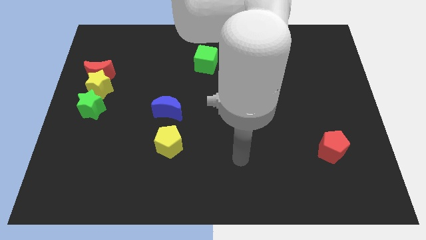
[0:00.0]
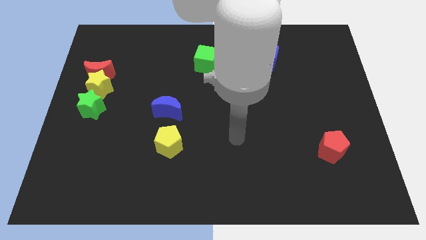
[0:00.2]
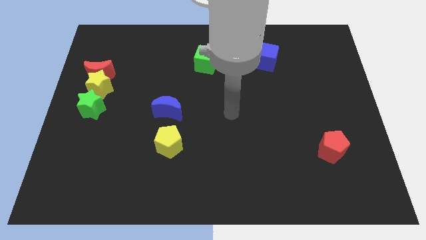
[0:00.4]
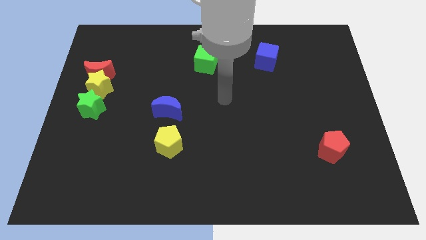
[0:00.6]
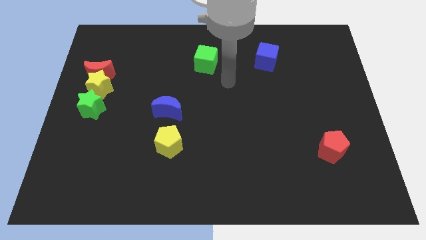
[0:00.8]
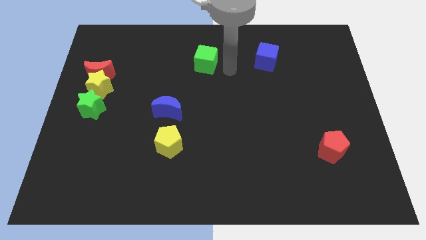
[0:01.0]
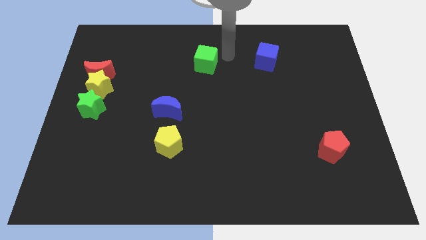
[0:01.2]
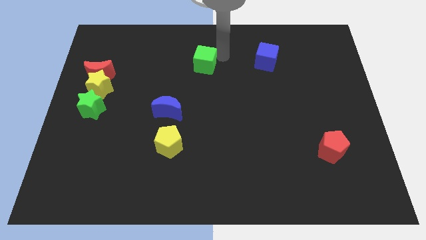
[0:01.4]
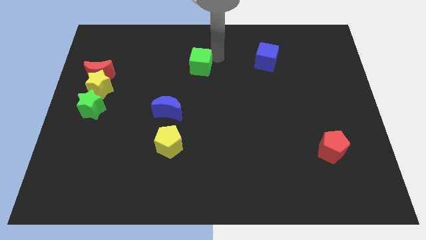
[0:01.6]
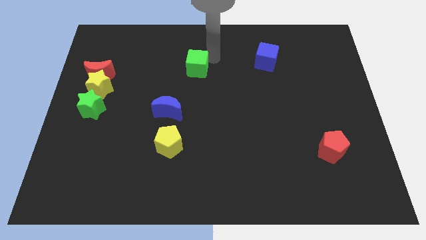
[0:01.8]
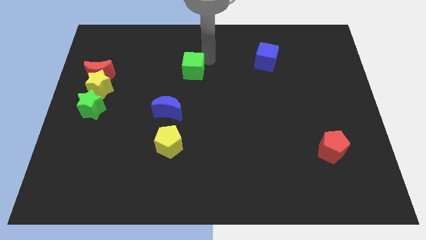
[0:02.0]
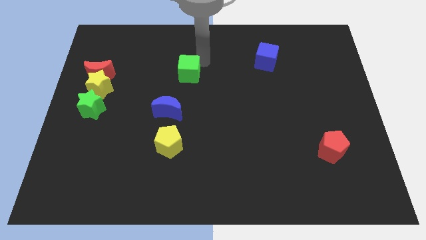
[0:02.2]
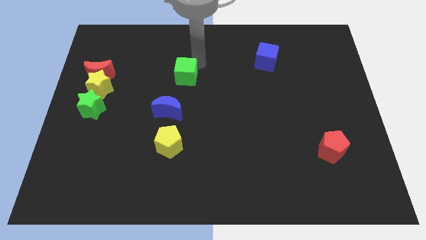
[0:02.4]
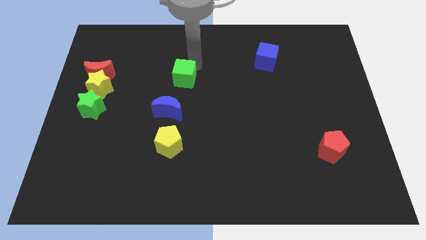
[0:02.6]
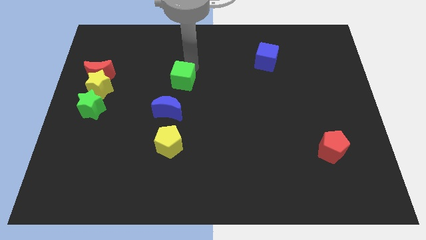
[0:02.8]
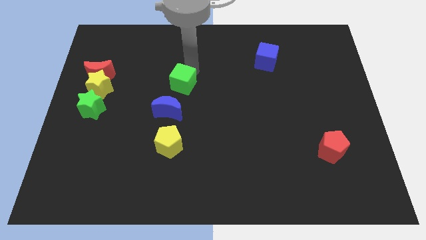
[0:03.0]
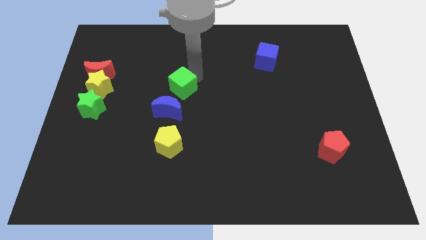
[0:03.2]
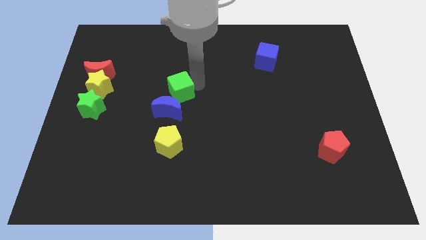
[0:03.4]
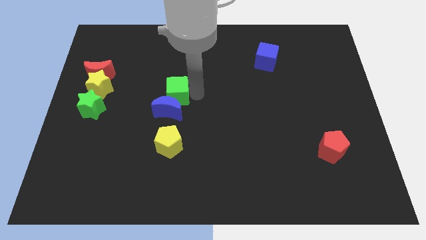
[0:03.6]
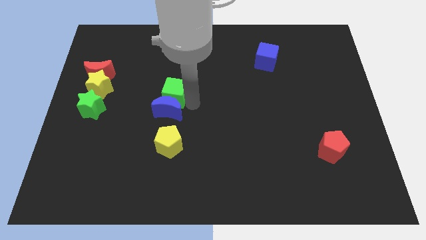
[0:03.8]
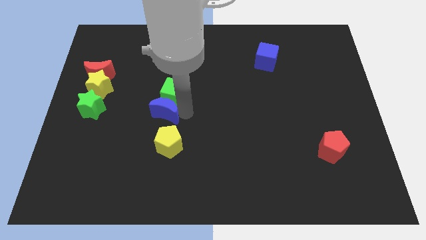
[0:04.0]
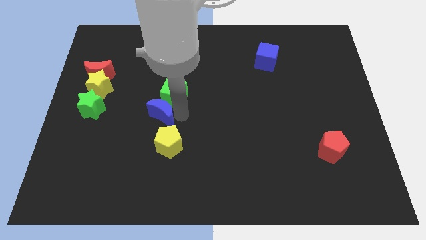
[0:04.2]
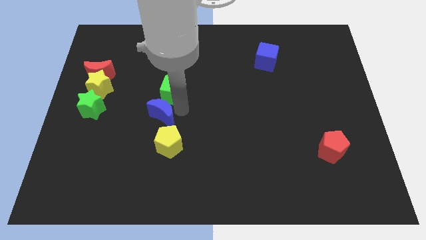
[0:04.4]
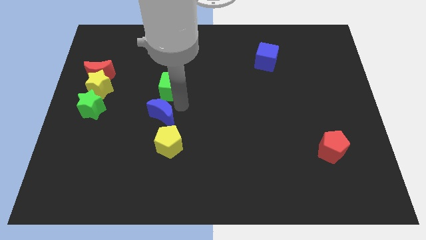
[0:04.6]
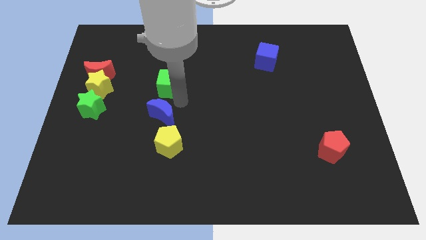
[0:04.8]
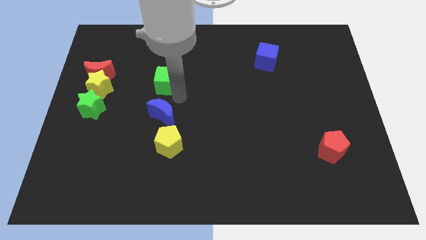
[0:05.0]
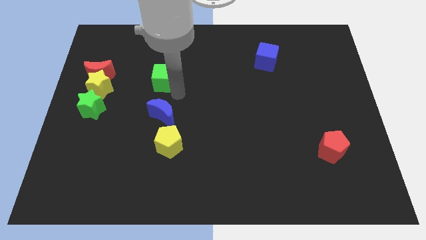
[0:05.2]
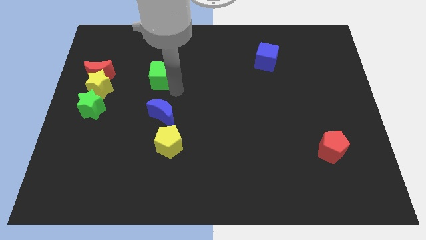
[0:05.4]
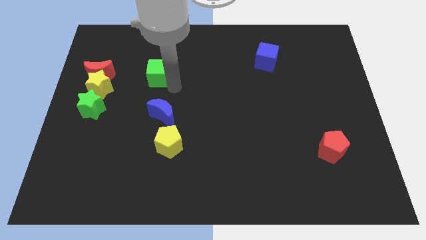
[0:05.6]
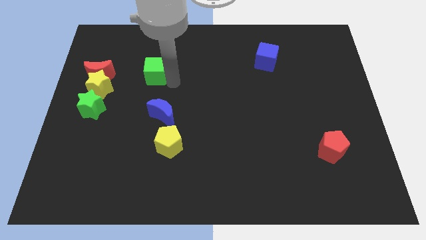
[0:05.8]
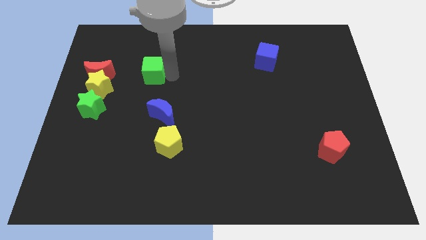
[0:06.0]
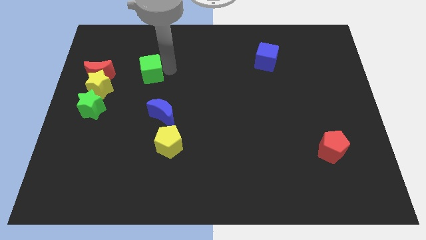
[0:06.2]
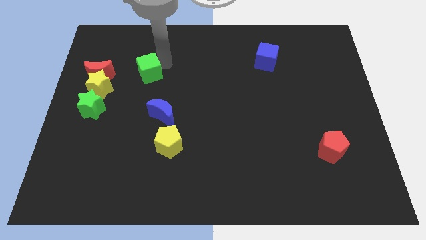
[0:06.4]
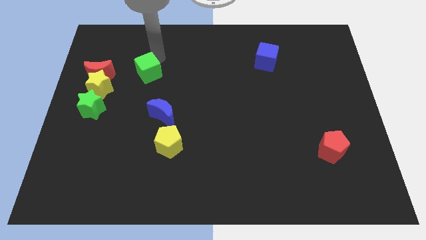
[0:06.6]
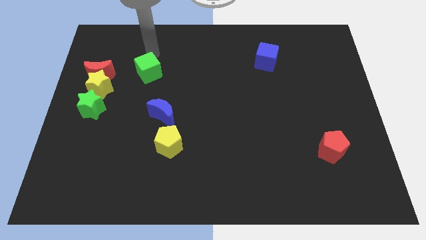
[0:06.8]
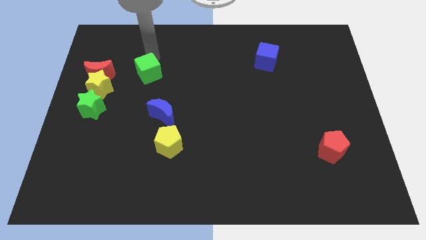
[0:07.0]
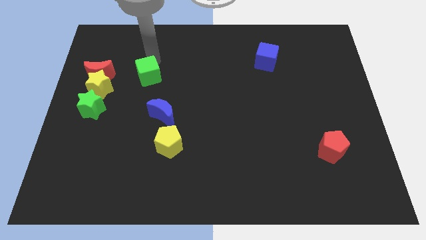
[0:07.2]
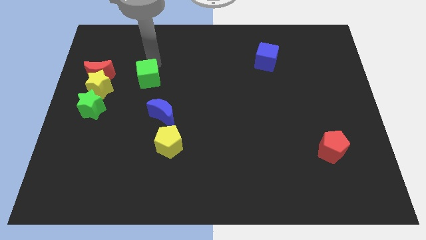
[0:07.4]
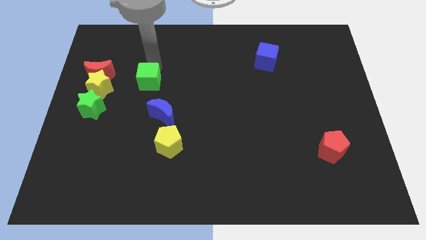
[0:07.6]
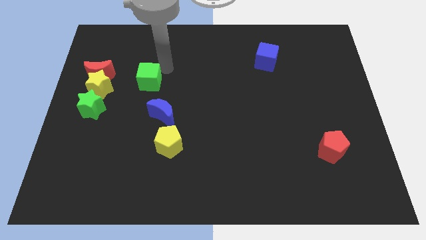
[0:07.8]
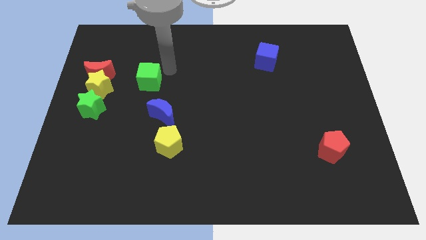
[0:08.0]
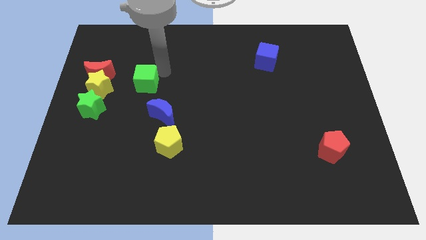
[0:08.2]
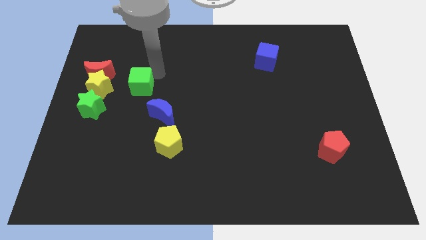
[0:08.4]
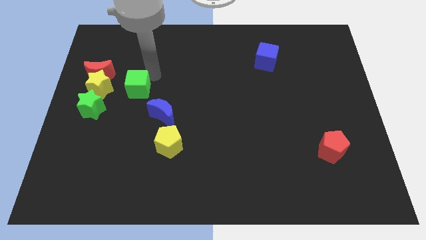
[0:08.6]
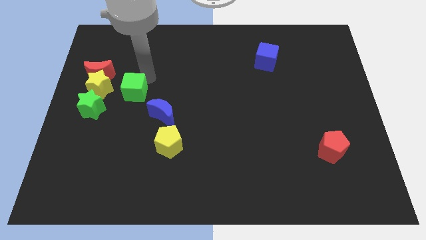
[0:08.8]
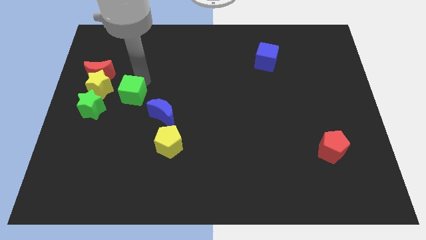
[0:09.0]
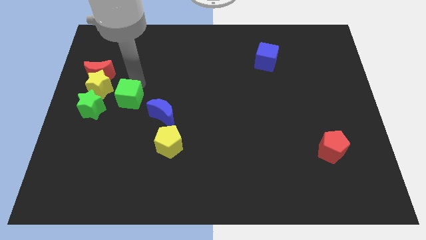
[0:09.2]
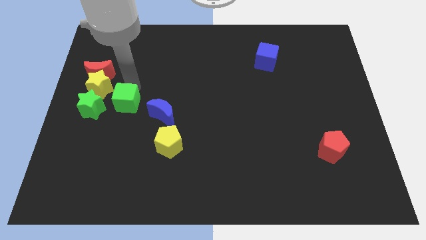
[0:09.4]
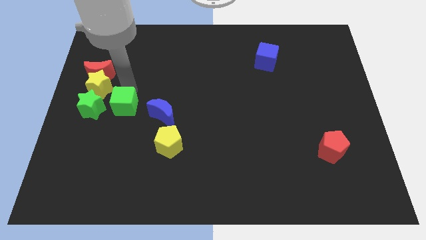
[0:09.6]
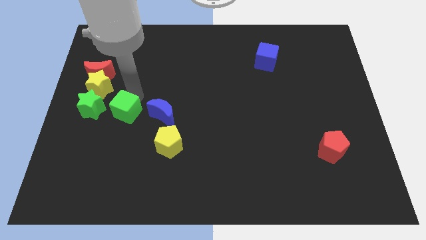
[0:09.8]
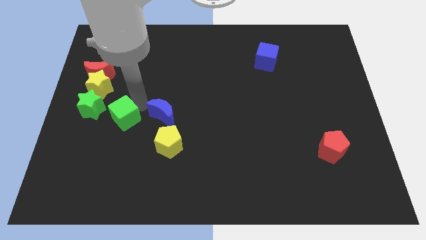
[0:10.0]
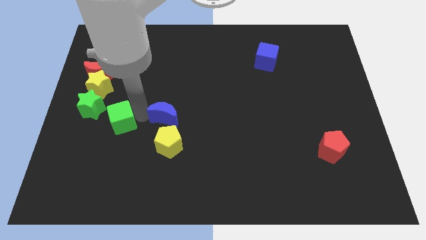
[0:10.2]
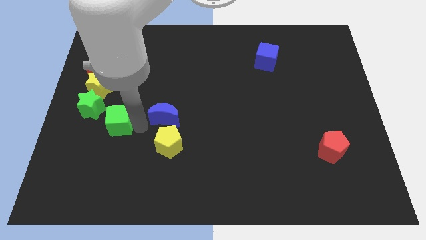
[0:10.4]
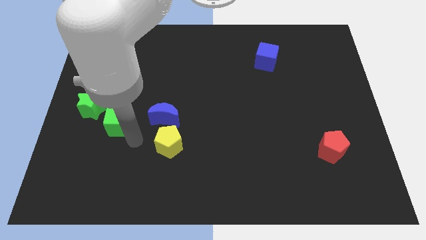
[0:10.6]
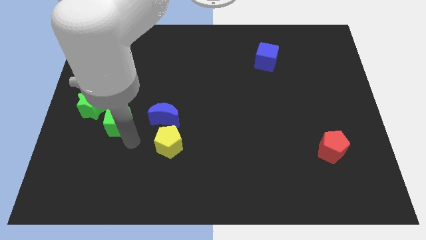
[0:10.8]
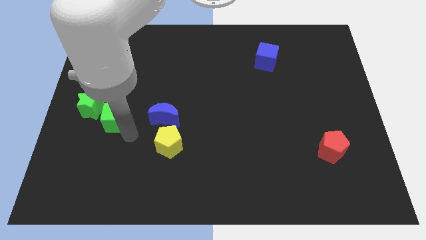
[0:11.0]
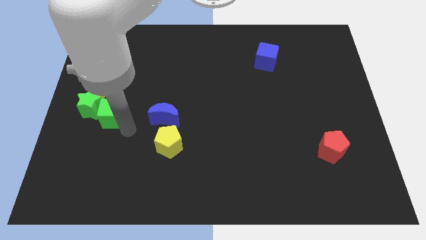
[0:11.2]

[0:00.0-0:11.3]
slide the green cube to the green star

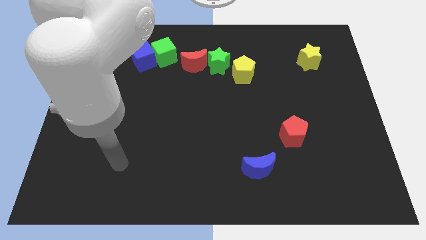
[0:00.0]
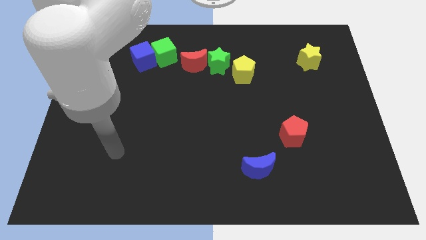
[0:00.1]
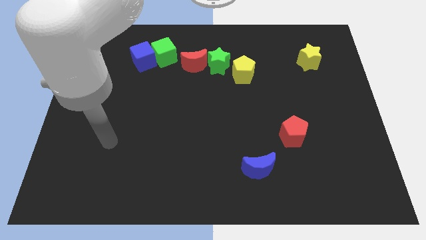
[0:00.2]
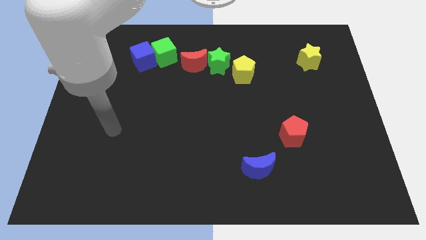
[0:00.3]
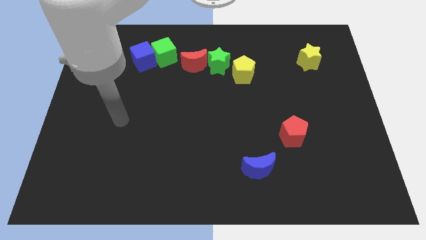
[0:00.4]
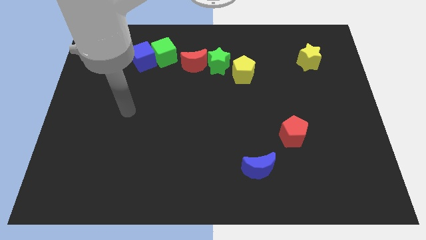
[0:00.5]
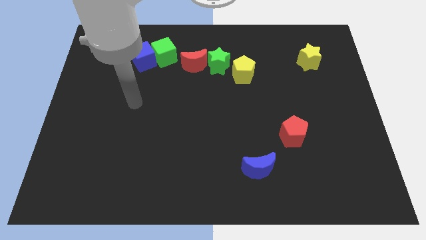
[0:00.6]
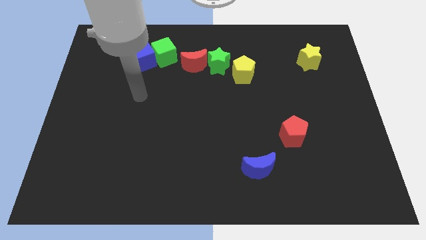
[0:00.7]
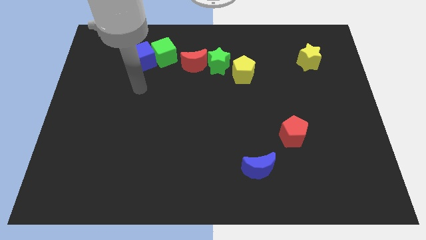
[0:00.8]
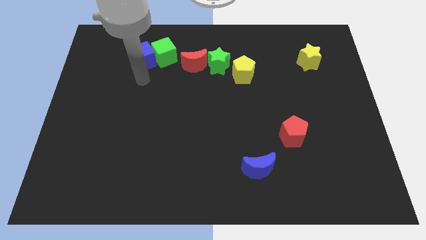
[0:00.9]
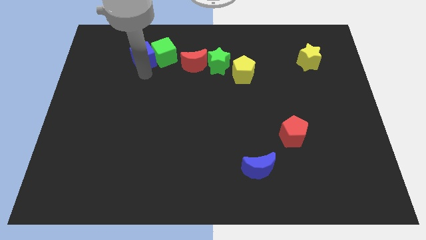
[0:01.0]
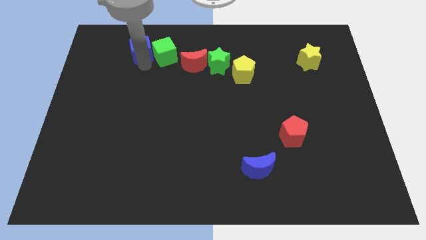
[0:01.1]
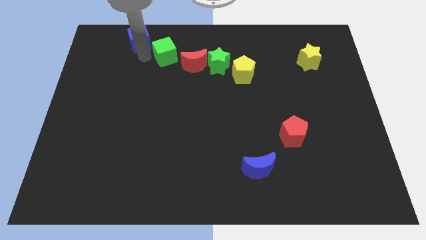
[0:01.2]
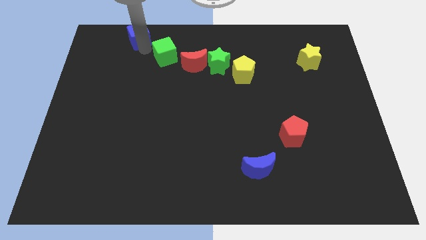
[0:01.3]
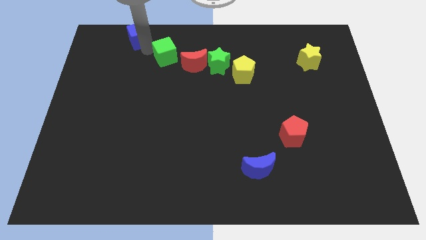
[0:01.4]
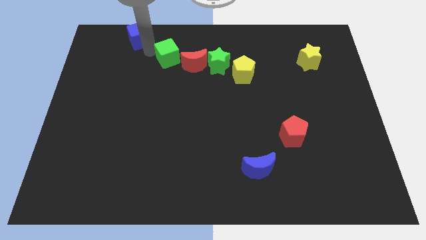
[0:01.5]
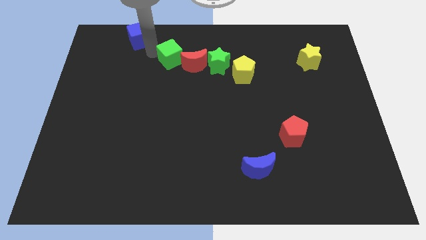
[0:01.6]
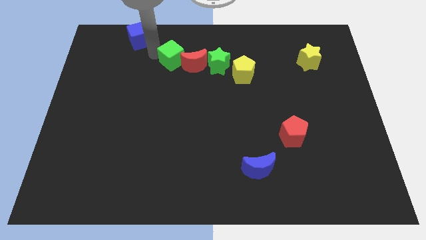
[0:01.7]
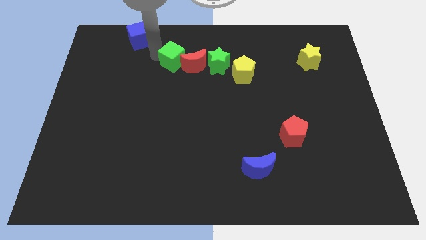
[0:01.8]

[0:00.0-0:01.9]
put the green cube to the red moon
